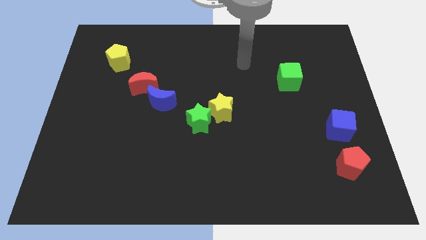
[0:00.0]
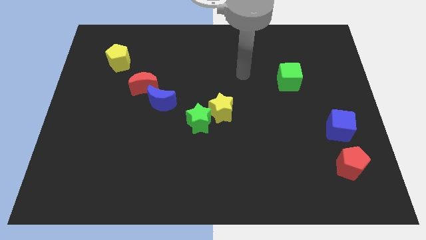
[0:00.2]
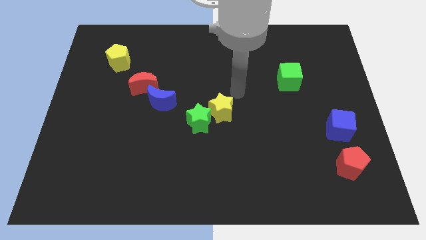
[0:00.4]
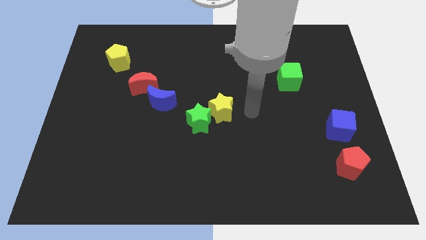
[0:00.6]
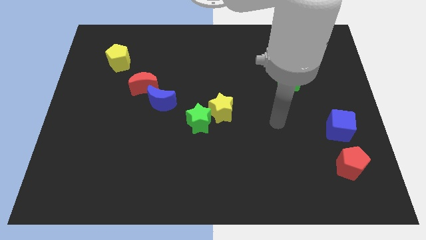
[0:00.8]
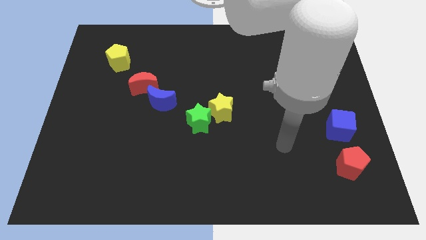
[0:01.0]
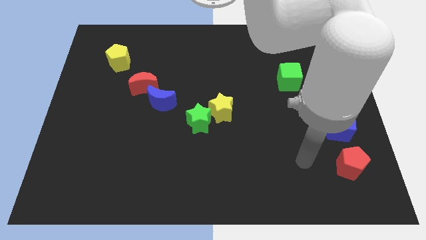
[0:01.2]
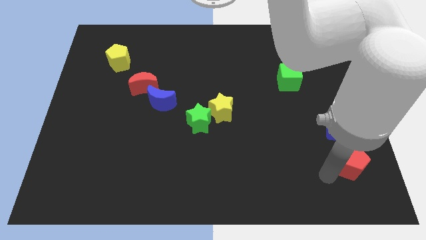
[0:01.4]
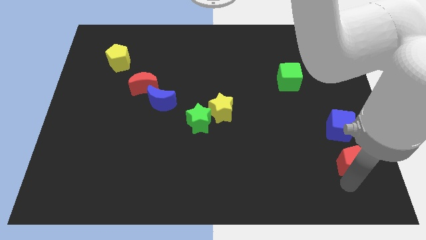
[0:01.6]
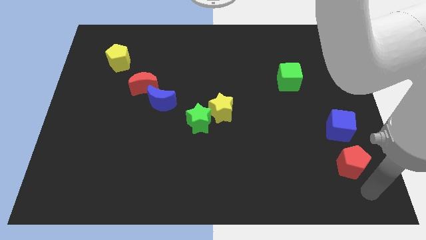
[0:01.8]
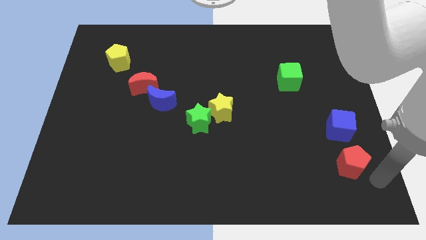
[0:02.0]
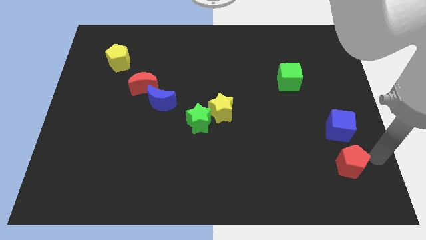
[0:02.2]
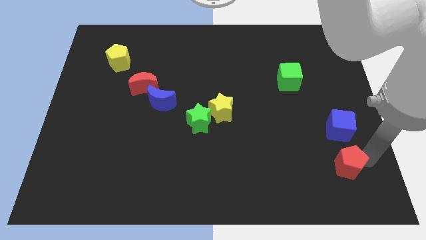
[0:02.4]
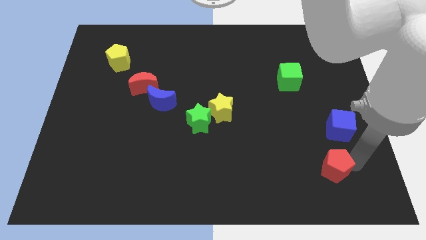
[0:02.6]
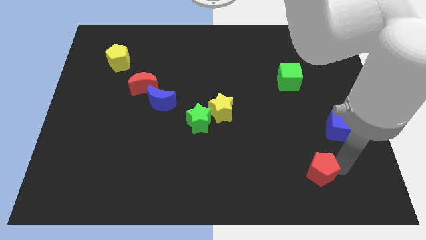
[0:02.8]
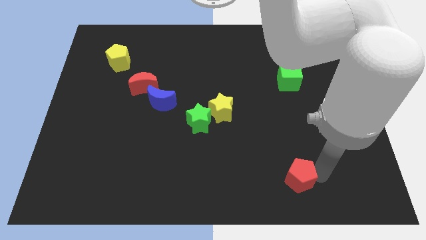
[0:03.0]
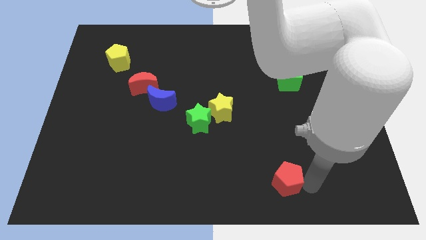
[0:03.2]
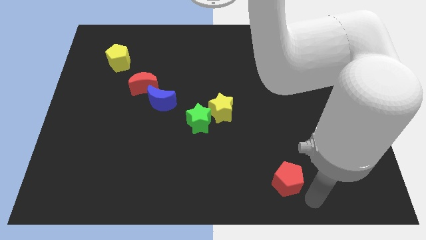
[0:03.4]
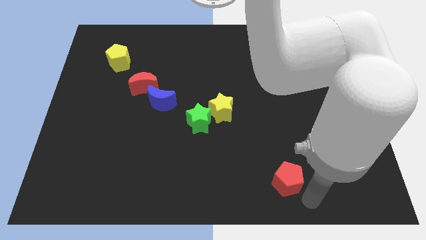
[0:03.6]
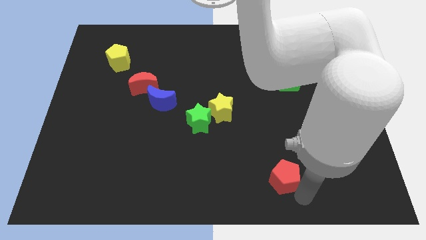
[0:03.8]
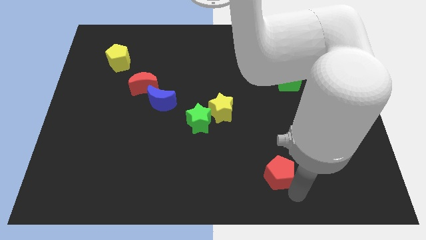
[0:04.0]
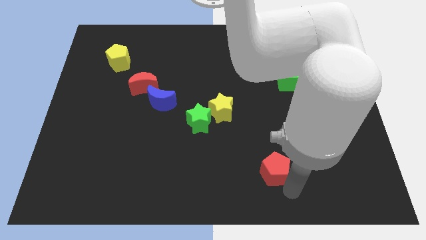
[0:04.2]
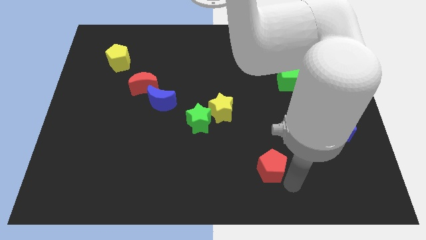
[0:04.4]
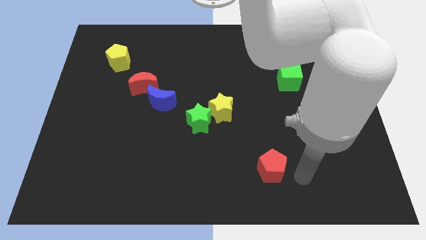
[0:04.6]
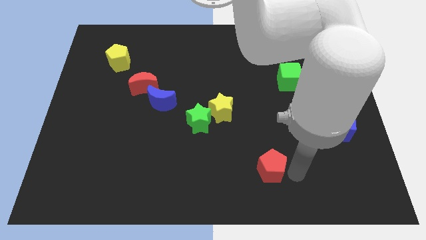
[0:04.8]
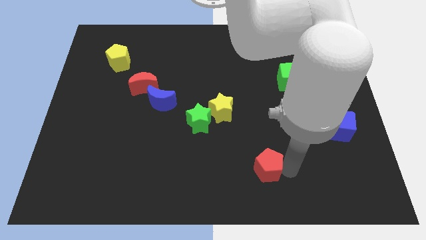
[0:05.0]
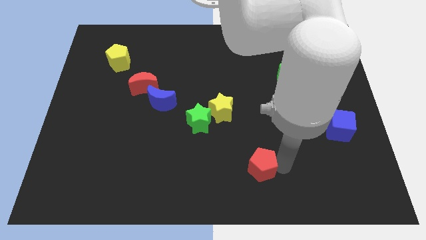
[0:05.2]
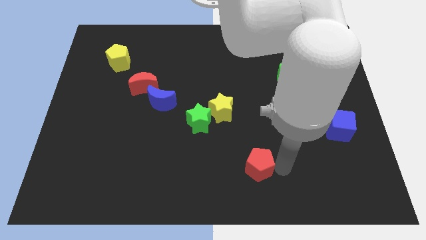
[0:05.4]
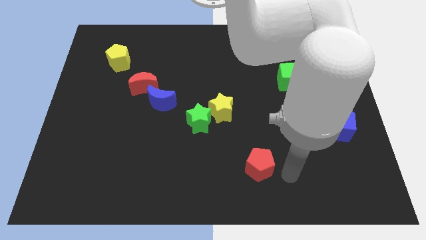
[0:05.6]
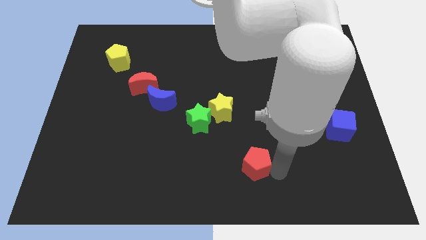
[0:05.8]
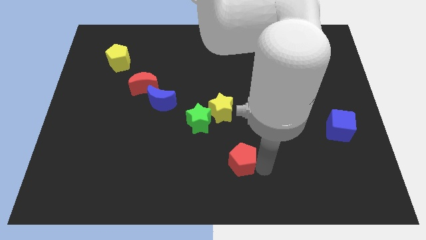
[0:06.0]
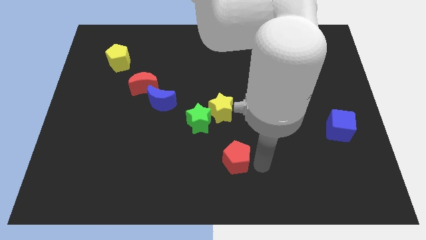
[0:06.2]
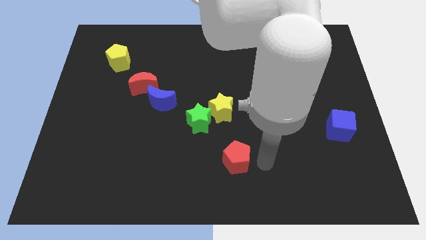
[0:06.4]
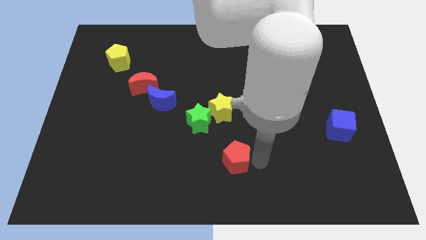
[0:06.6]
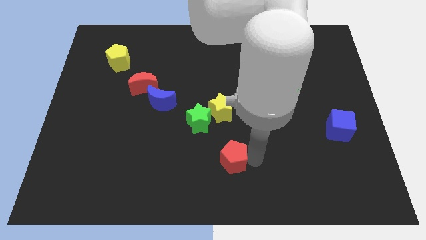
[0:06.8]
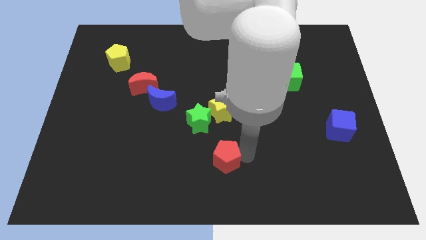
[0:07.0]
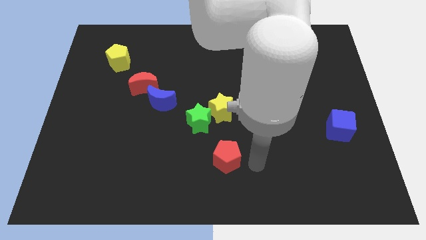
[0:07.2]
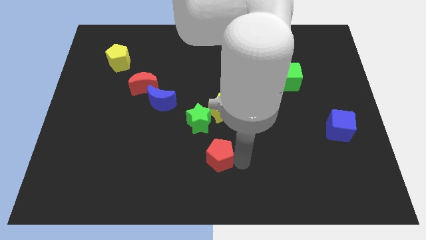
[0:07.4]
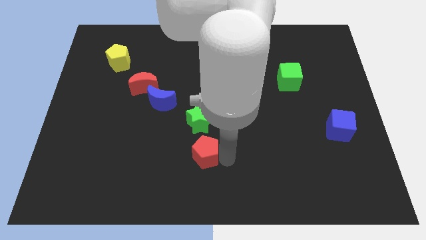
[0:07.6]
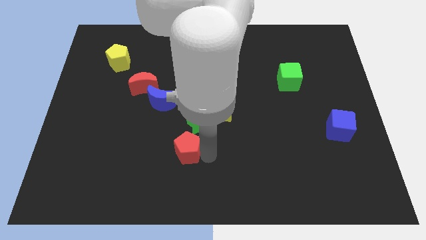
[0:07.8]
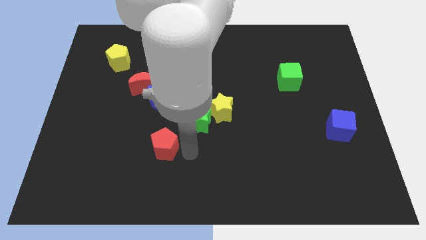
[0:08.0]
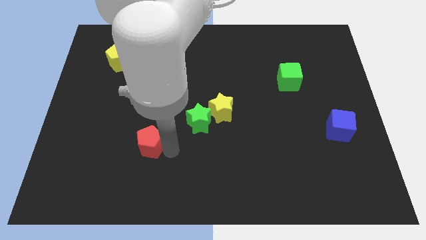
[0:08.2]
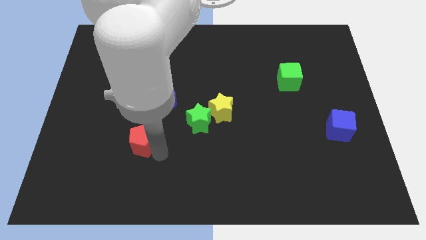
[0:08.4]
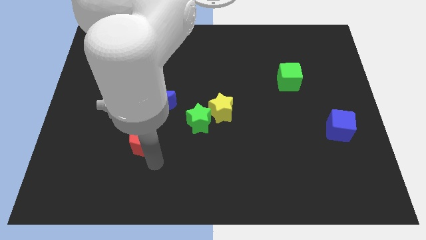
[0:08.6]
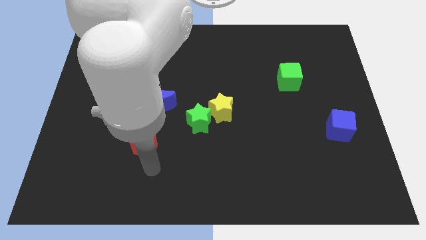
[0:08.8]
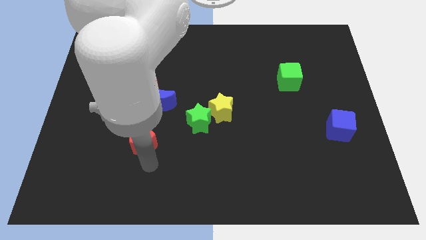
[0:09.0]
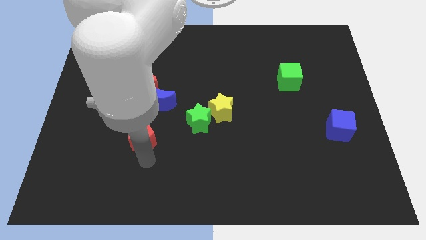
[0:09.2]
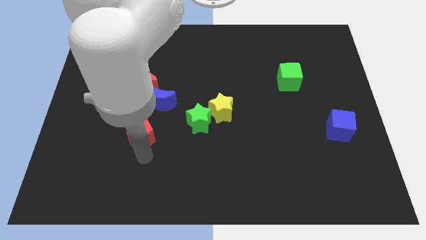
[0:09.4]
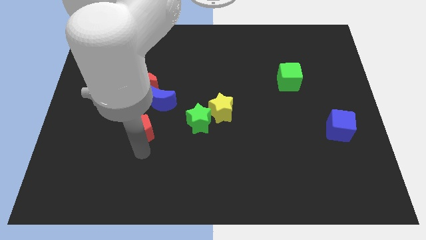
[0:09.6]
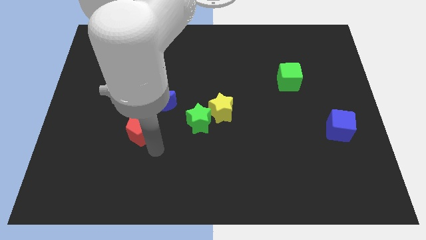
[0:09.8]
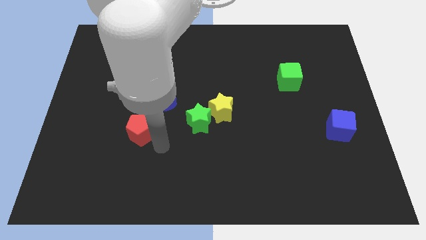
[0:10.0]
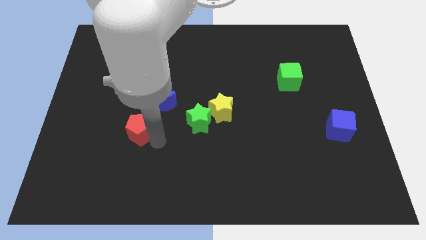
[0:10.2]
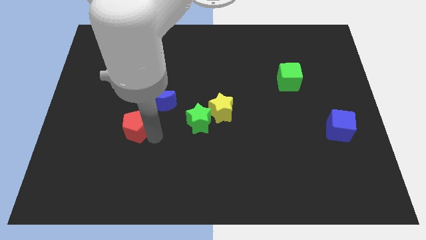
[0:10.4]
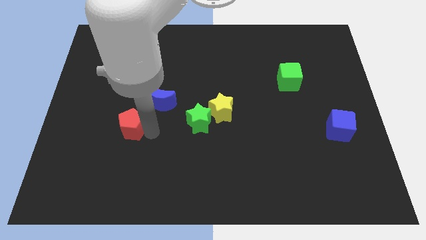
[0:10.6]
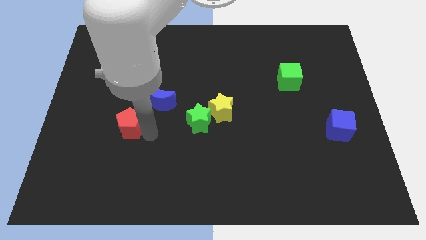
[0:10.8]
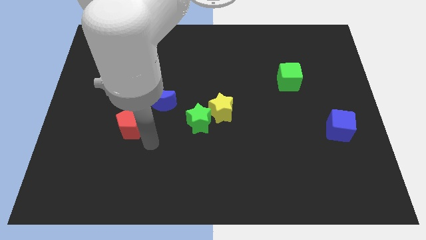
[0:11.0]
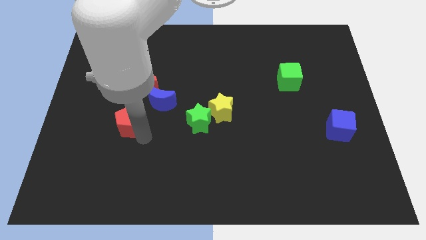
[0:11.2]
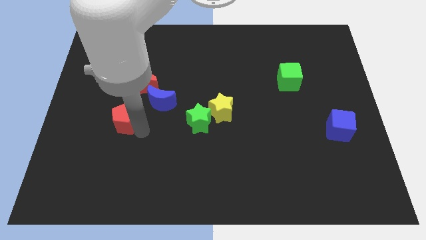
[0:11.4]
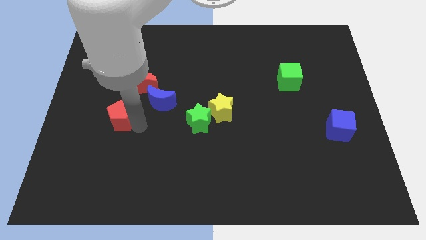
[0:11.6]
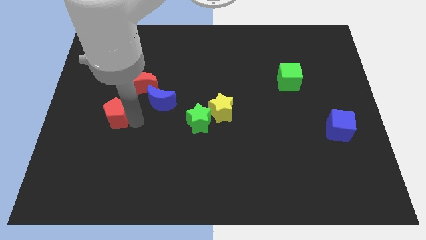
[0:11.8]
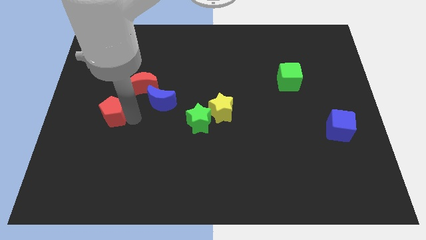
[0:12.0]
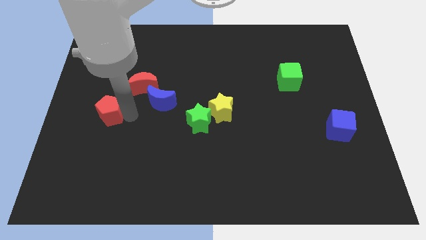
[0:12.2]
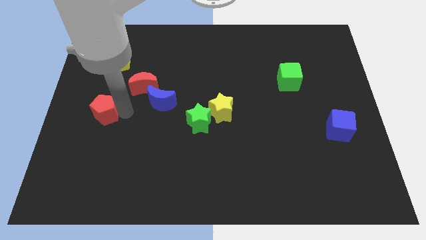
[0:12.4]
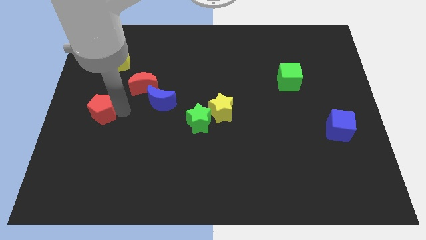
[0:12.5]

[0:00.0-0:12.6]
slide the red pentagon to the left side

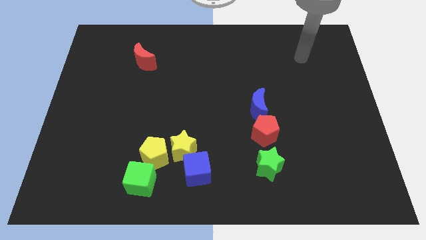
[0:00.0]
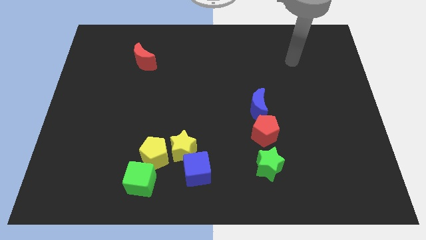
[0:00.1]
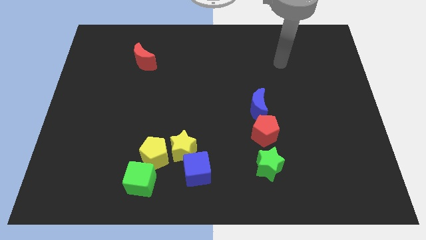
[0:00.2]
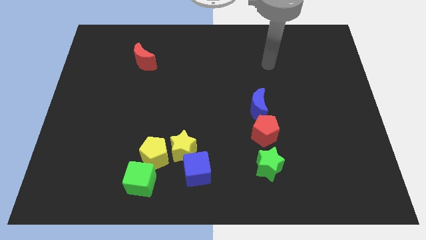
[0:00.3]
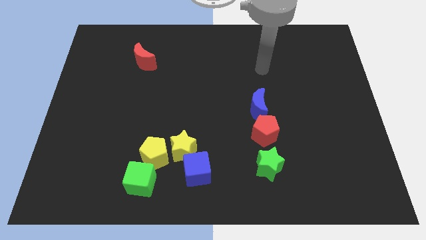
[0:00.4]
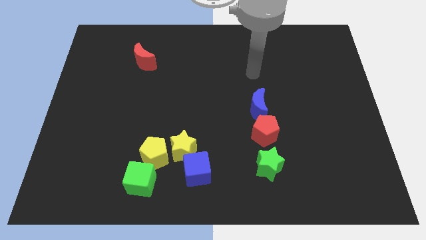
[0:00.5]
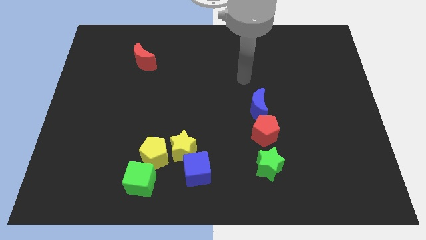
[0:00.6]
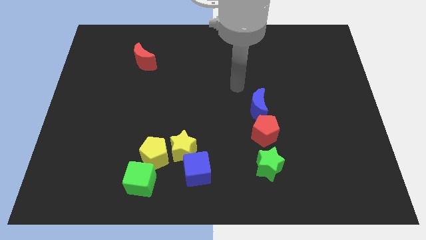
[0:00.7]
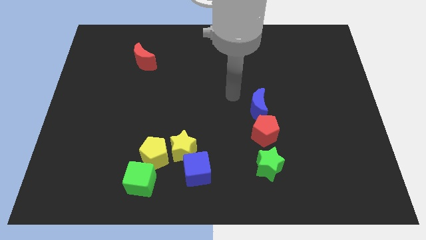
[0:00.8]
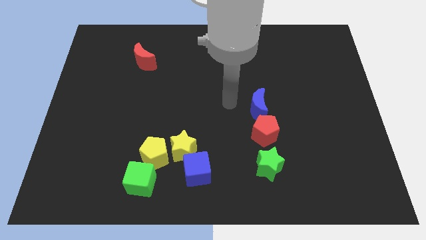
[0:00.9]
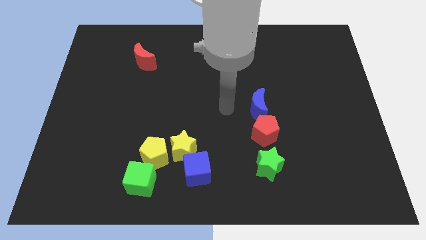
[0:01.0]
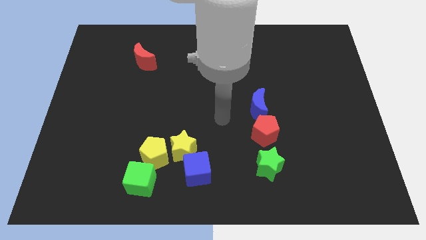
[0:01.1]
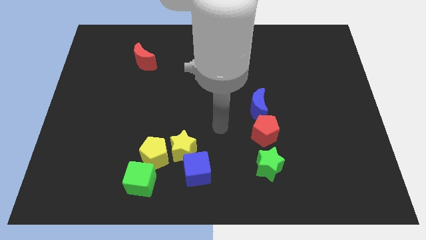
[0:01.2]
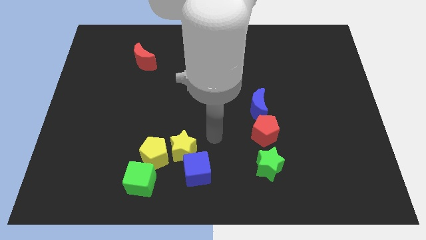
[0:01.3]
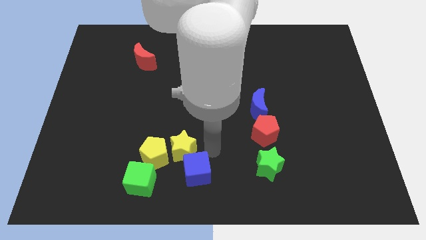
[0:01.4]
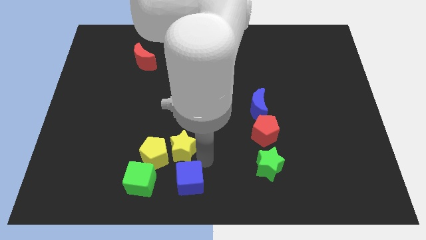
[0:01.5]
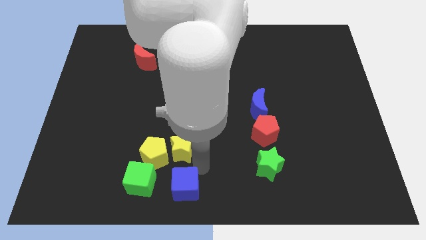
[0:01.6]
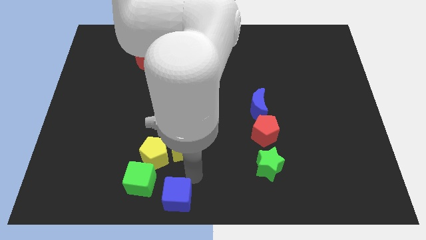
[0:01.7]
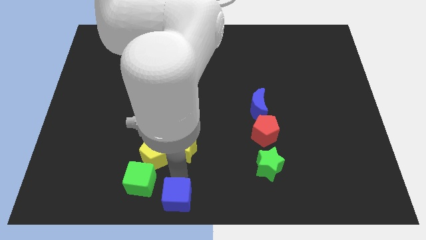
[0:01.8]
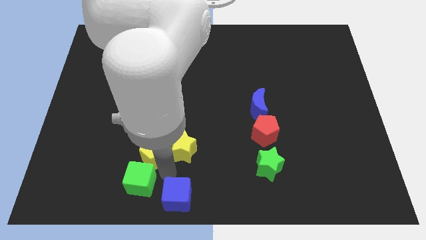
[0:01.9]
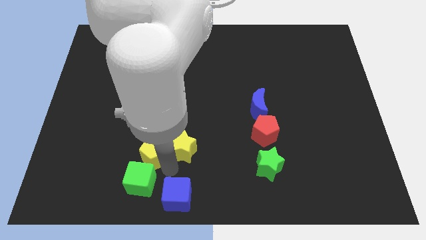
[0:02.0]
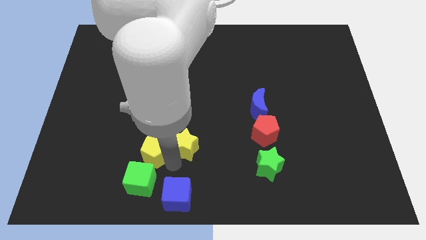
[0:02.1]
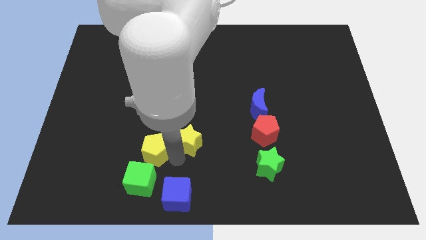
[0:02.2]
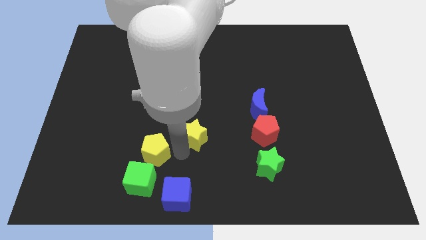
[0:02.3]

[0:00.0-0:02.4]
put the yellow star to the center
